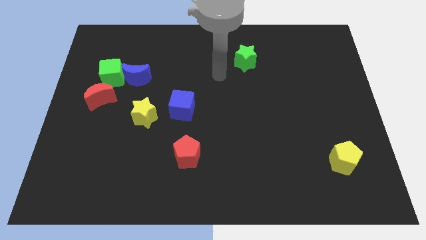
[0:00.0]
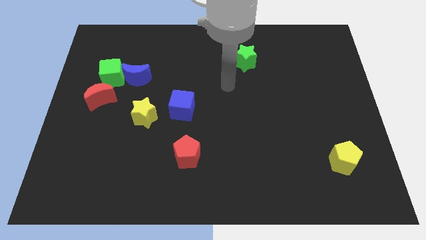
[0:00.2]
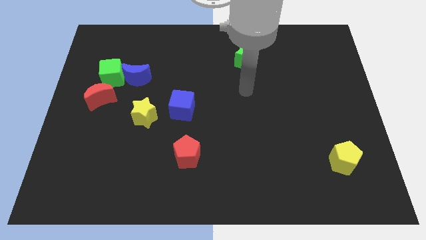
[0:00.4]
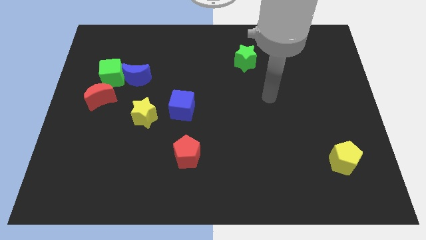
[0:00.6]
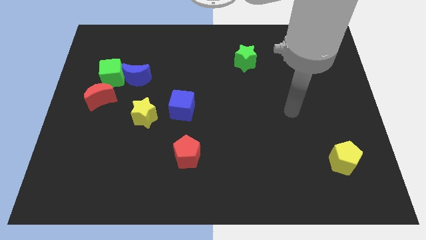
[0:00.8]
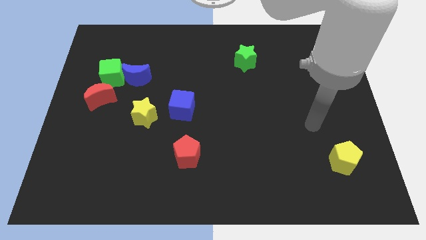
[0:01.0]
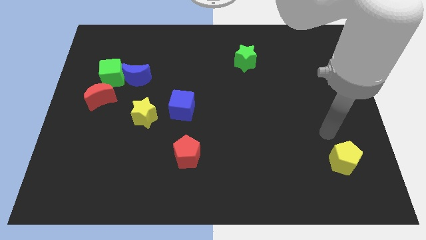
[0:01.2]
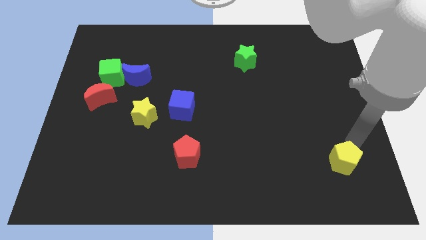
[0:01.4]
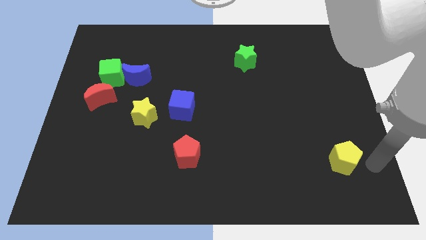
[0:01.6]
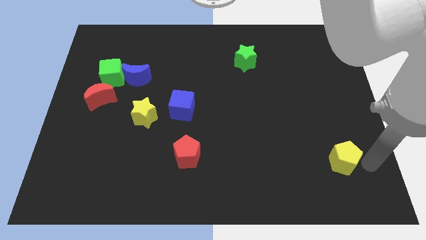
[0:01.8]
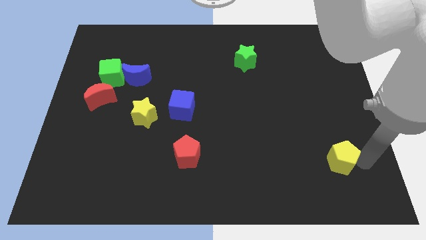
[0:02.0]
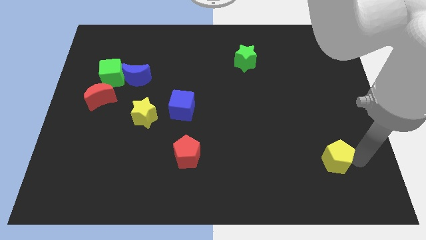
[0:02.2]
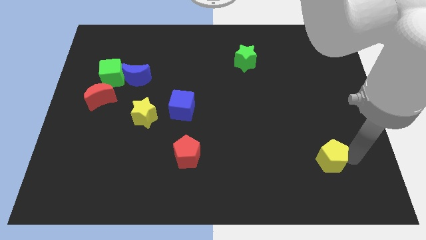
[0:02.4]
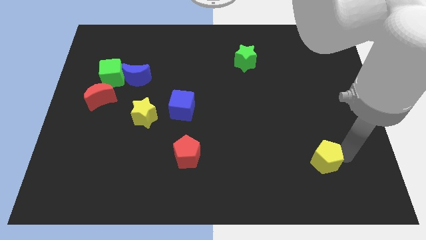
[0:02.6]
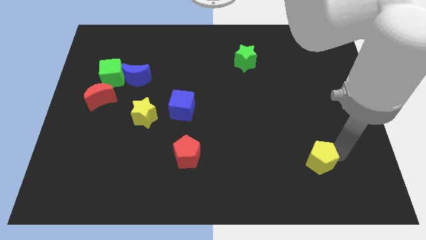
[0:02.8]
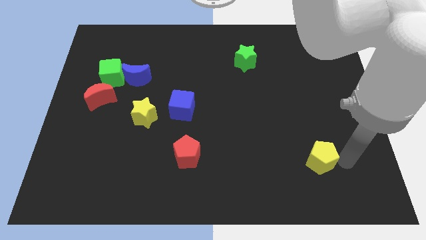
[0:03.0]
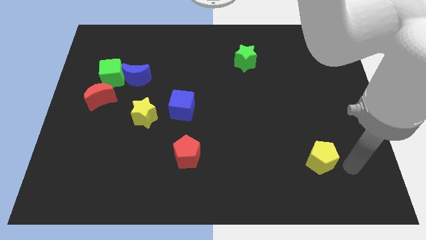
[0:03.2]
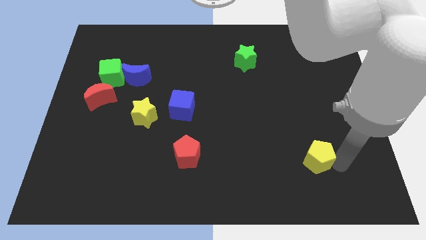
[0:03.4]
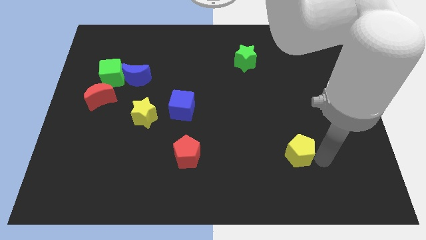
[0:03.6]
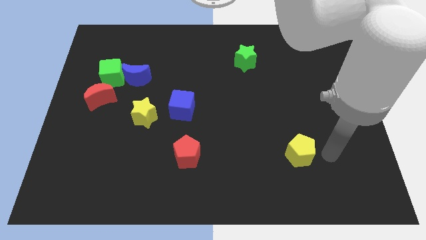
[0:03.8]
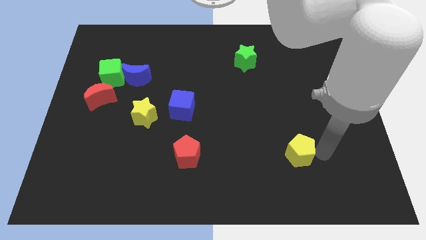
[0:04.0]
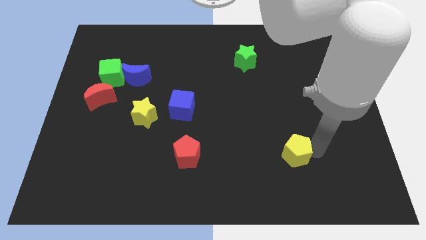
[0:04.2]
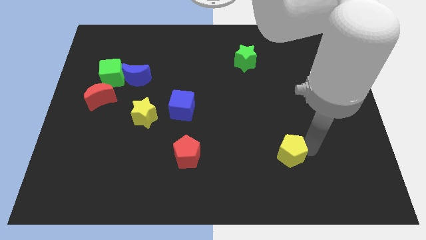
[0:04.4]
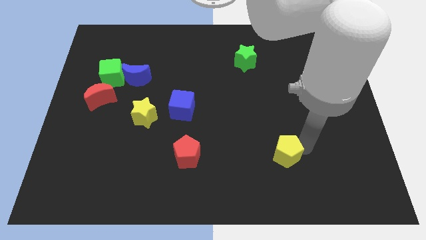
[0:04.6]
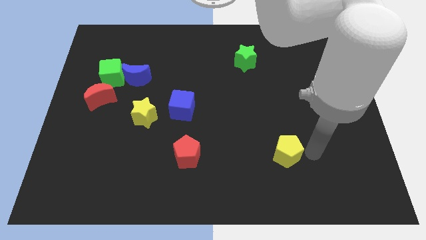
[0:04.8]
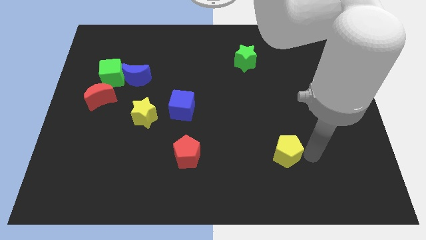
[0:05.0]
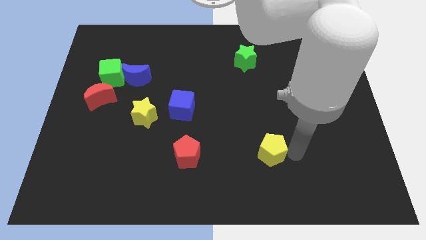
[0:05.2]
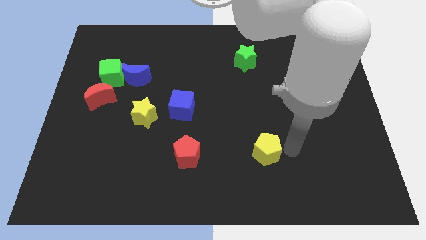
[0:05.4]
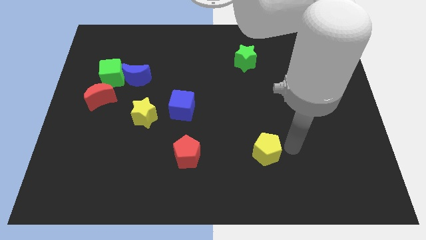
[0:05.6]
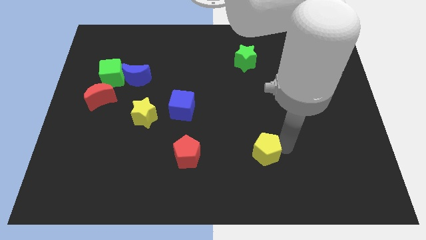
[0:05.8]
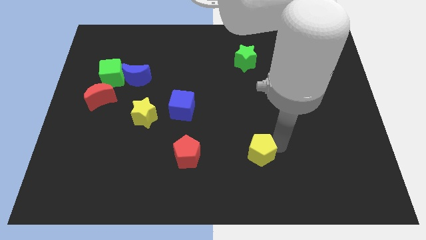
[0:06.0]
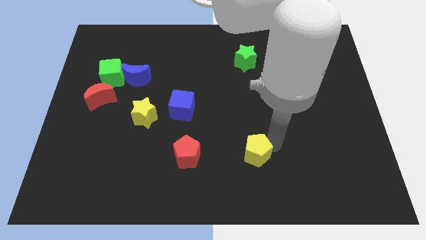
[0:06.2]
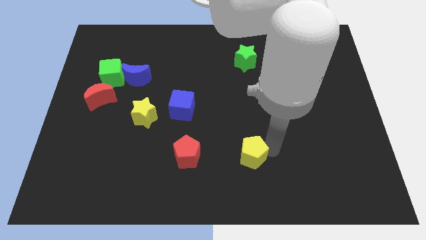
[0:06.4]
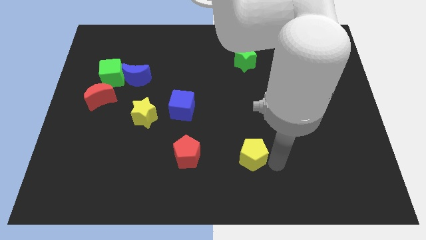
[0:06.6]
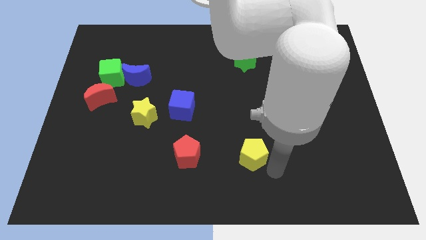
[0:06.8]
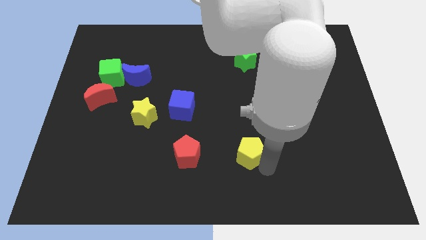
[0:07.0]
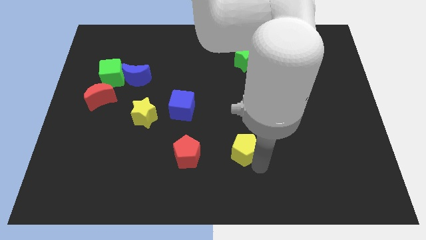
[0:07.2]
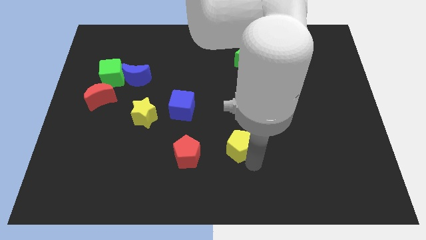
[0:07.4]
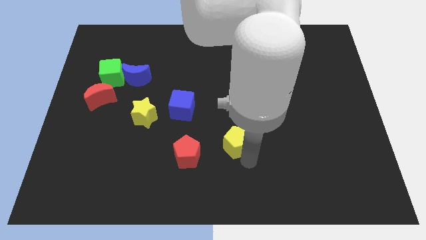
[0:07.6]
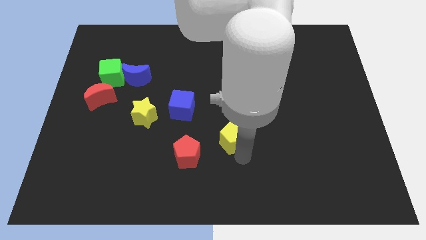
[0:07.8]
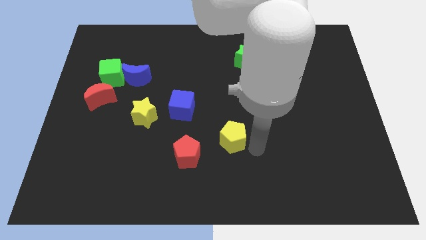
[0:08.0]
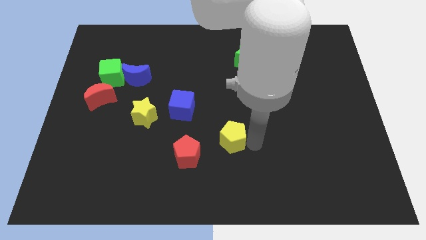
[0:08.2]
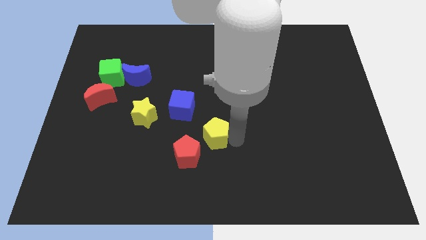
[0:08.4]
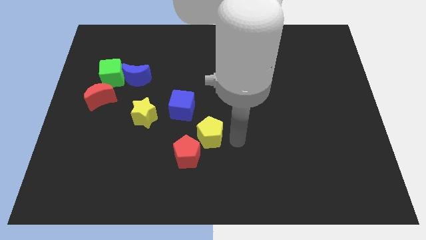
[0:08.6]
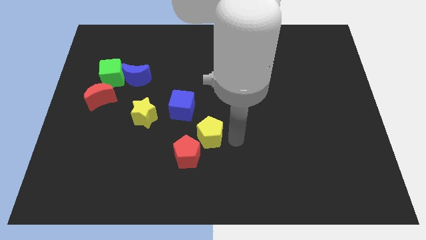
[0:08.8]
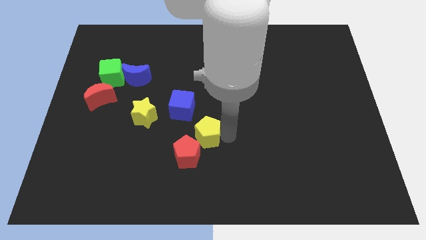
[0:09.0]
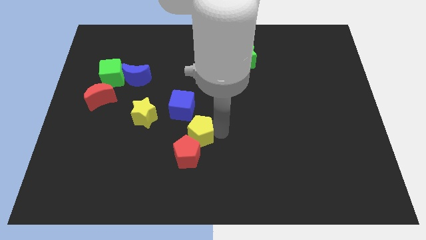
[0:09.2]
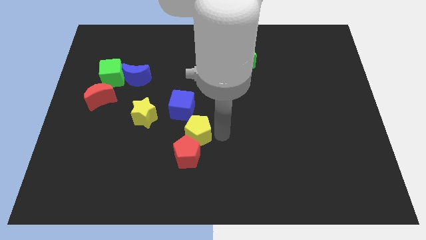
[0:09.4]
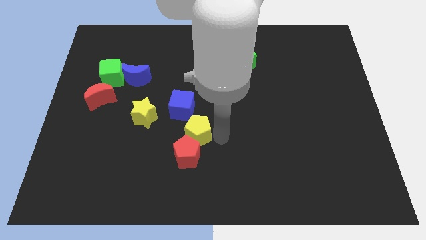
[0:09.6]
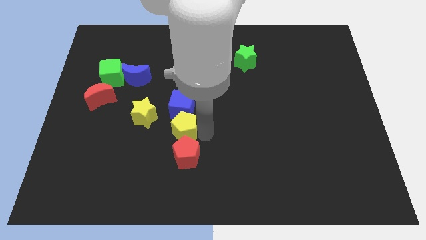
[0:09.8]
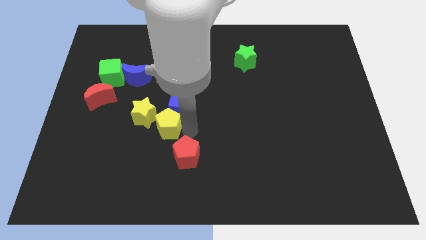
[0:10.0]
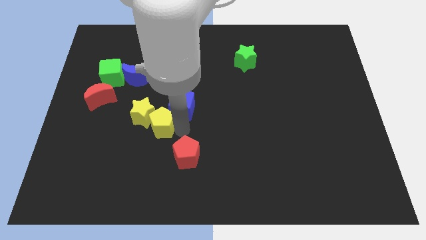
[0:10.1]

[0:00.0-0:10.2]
slide the yellow pentagon to the yellow star

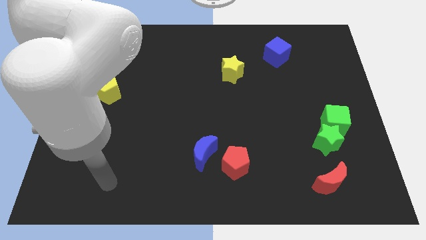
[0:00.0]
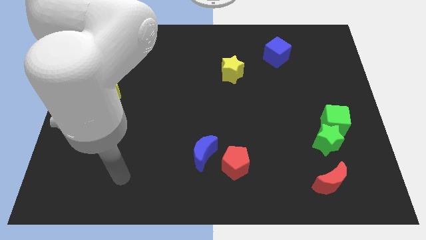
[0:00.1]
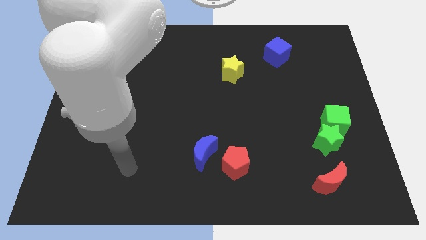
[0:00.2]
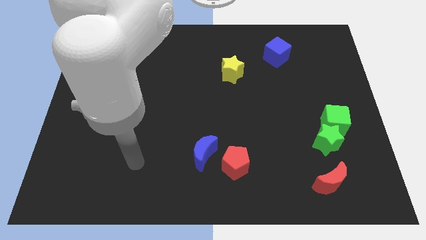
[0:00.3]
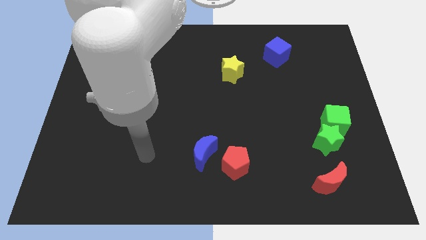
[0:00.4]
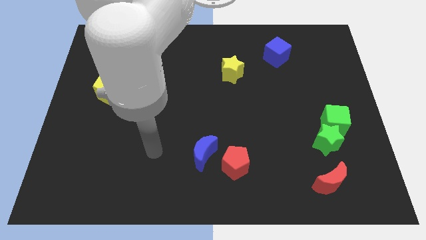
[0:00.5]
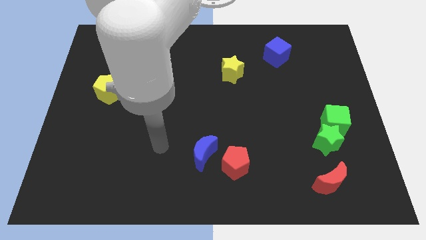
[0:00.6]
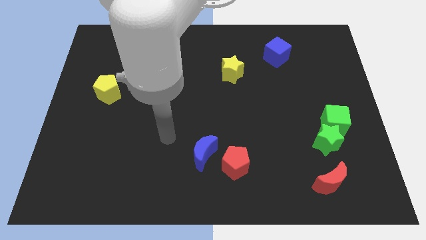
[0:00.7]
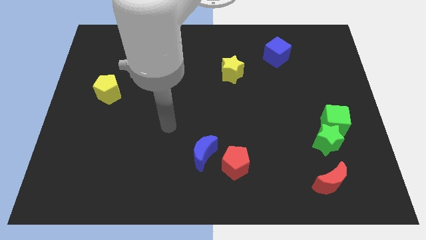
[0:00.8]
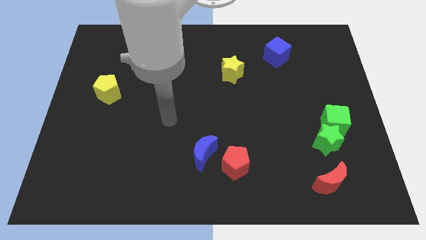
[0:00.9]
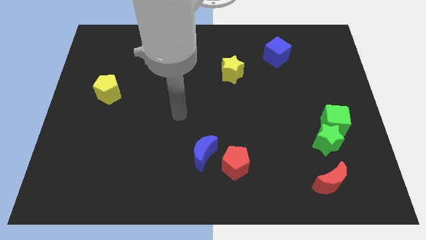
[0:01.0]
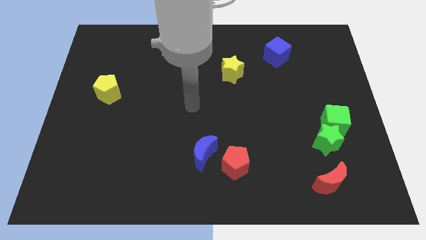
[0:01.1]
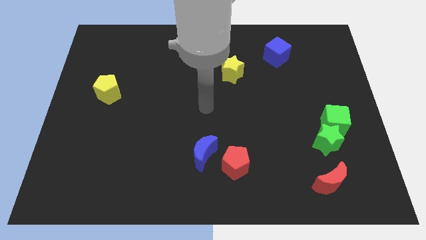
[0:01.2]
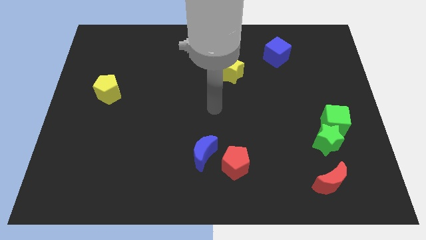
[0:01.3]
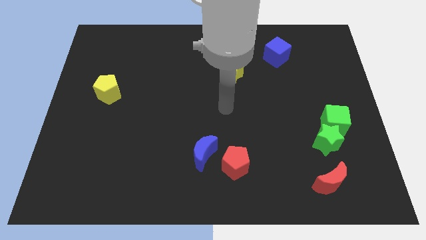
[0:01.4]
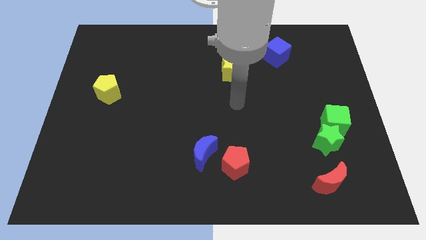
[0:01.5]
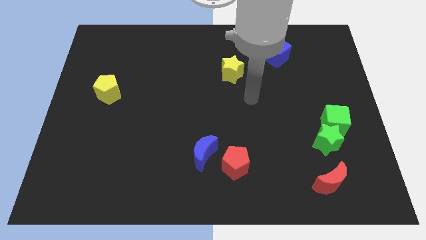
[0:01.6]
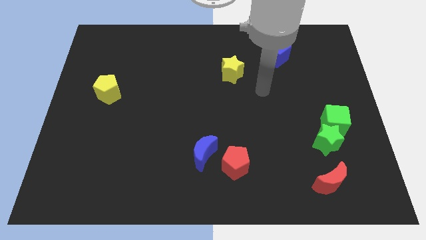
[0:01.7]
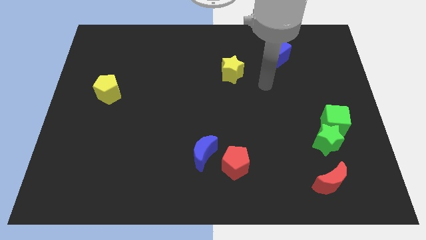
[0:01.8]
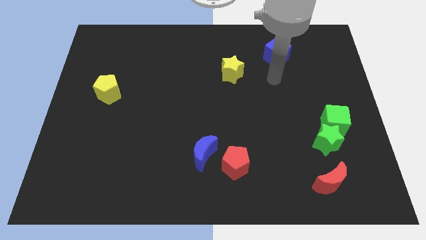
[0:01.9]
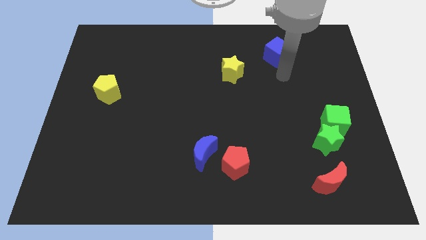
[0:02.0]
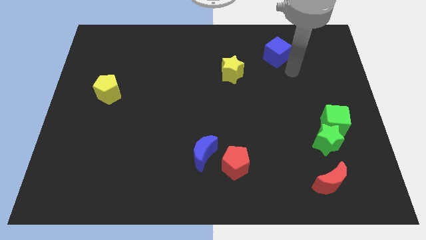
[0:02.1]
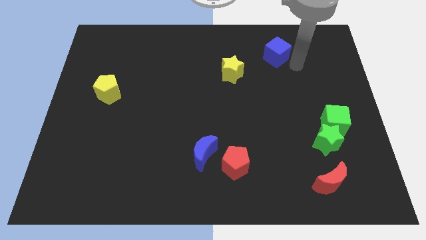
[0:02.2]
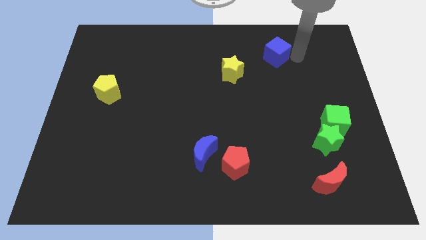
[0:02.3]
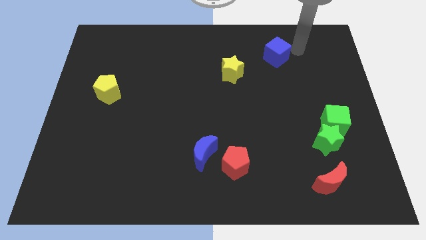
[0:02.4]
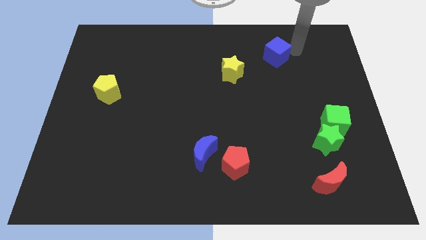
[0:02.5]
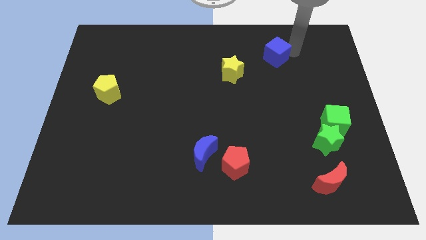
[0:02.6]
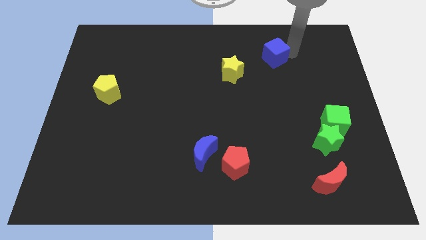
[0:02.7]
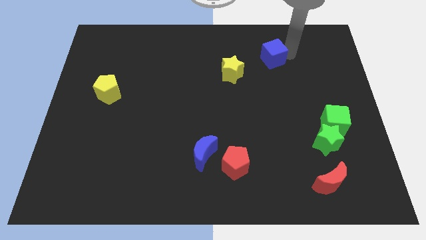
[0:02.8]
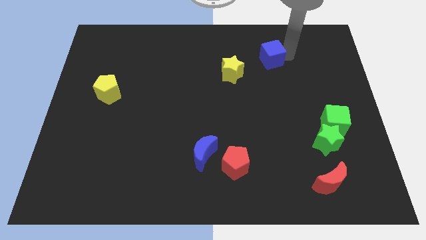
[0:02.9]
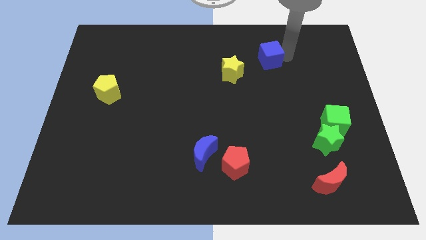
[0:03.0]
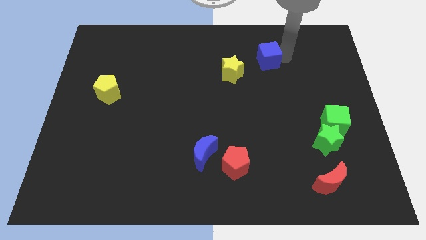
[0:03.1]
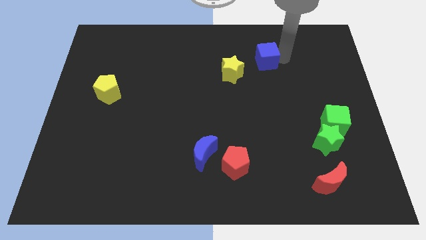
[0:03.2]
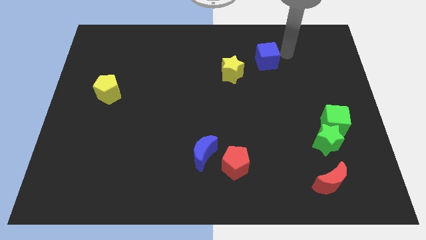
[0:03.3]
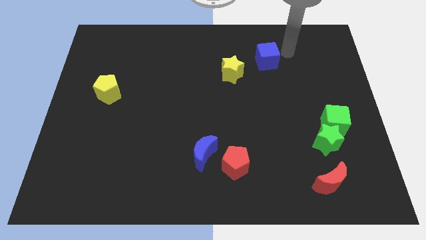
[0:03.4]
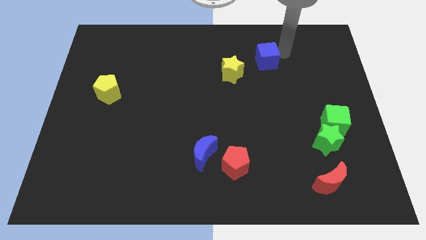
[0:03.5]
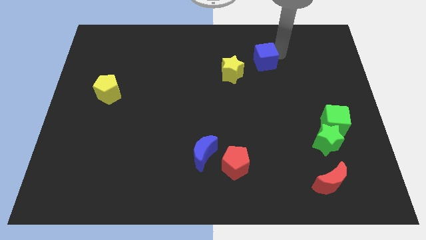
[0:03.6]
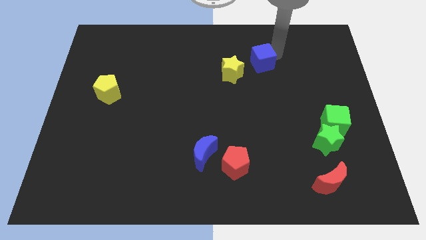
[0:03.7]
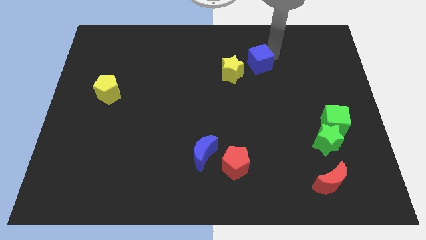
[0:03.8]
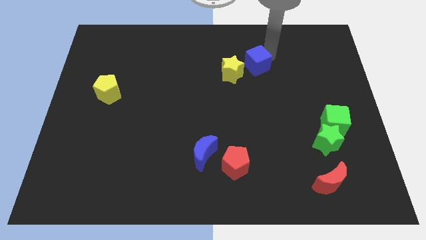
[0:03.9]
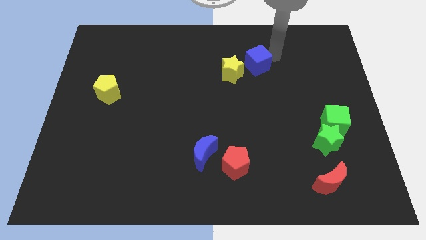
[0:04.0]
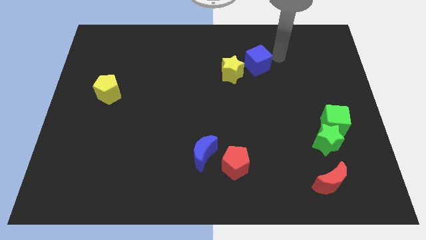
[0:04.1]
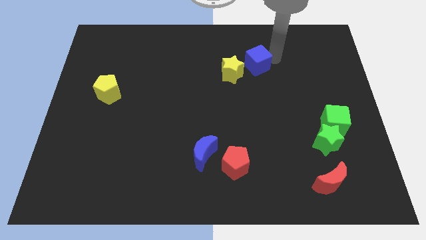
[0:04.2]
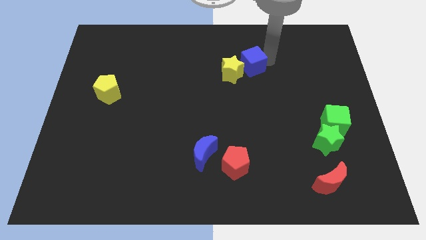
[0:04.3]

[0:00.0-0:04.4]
put the blue cube next to the yellow star
